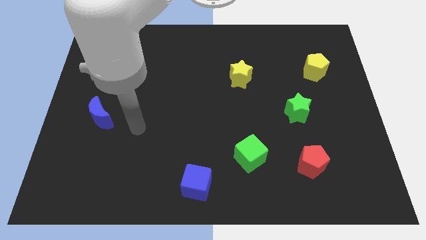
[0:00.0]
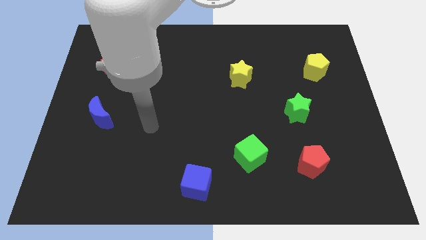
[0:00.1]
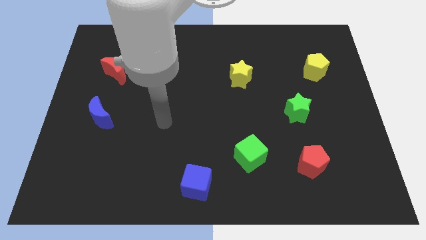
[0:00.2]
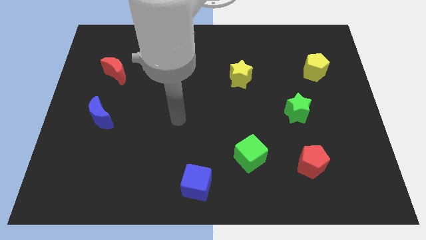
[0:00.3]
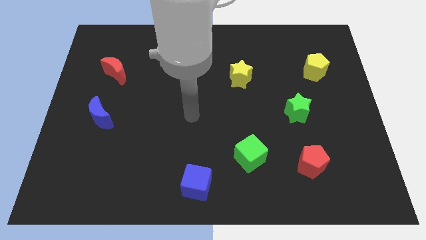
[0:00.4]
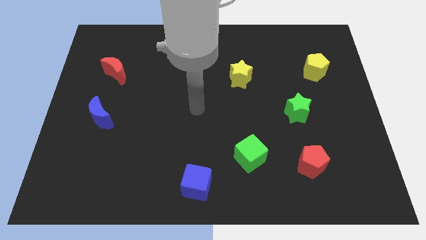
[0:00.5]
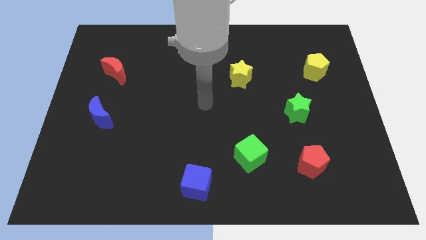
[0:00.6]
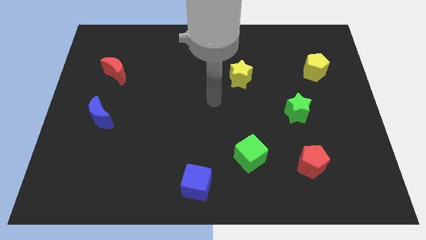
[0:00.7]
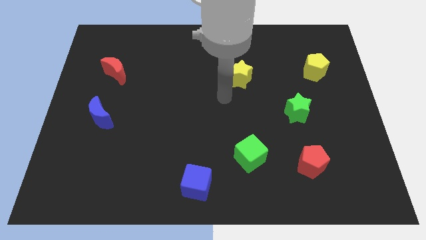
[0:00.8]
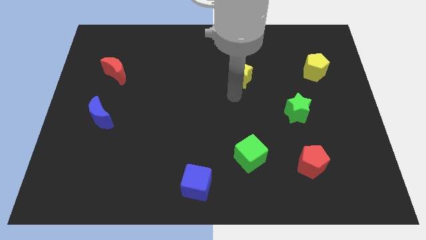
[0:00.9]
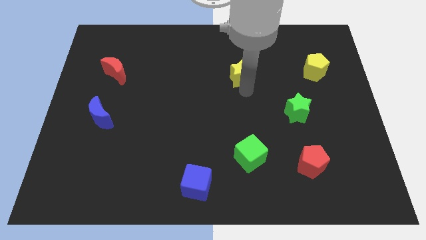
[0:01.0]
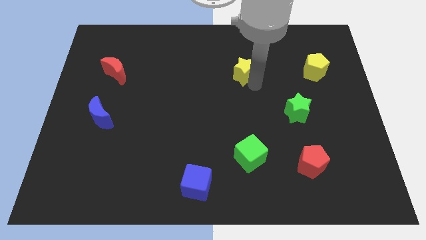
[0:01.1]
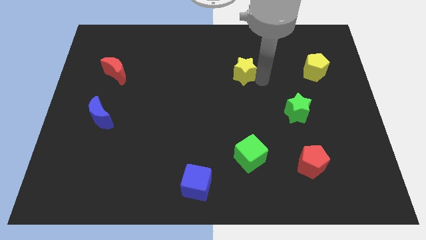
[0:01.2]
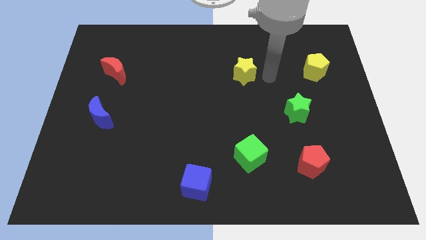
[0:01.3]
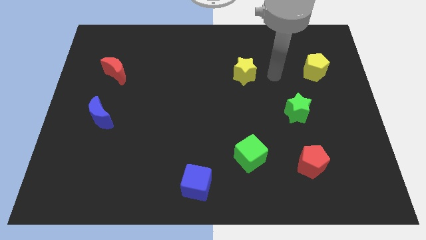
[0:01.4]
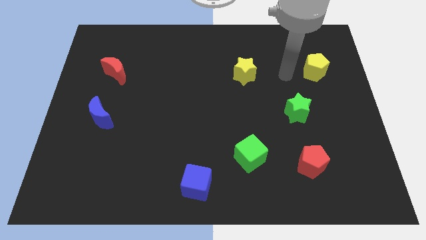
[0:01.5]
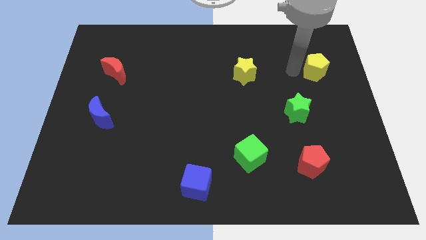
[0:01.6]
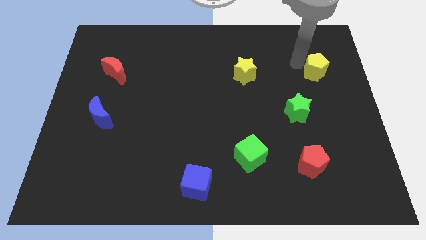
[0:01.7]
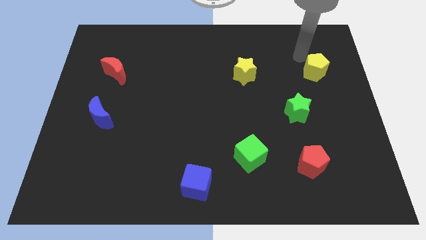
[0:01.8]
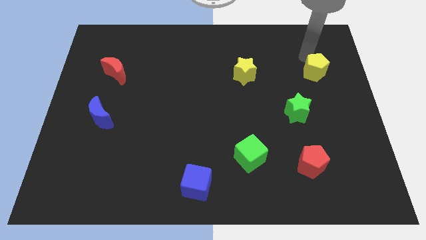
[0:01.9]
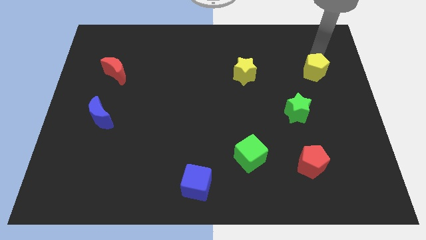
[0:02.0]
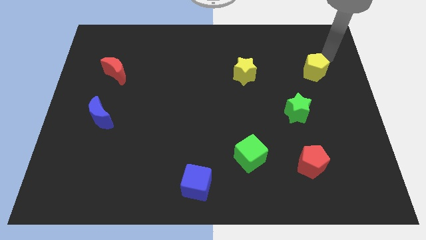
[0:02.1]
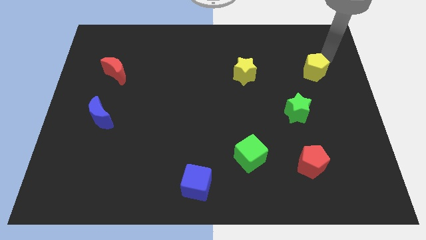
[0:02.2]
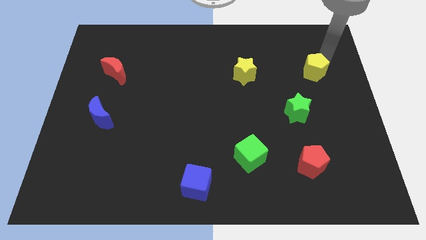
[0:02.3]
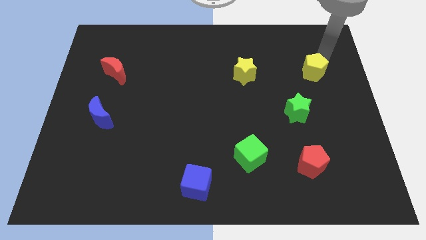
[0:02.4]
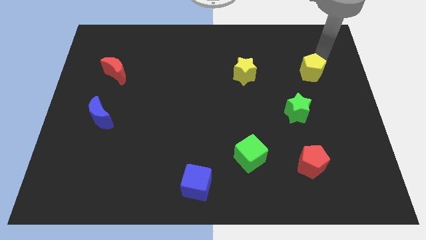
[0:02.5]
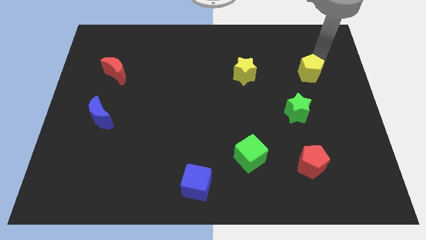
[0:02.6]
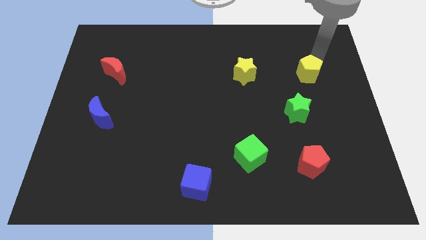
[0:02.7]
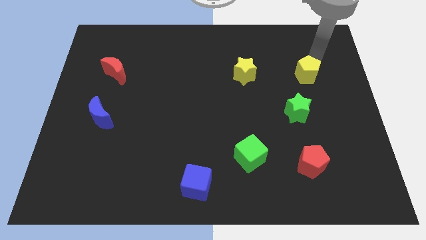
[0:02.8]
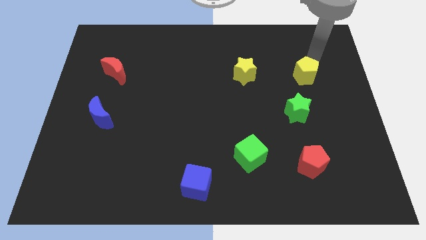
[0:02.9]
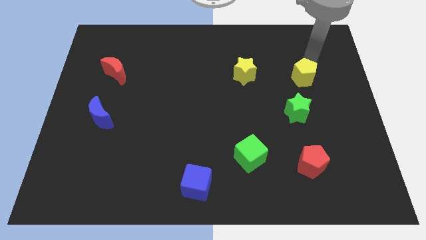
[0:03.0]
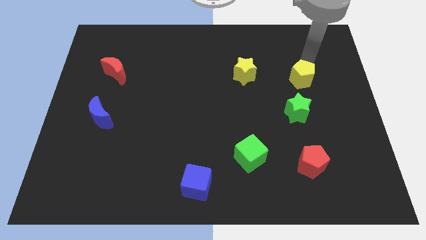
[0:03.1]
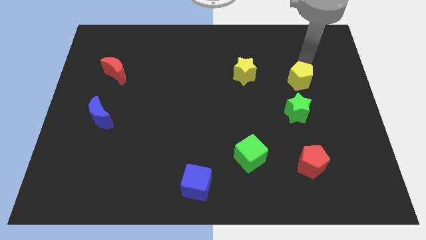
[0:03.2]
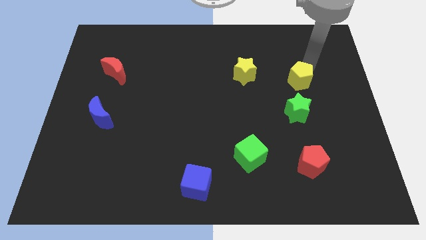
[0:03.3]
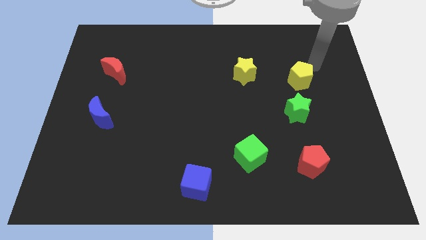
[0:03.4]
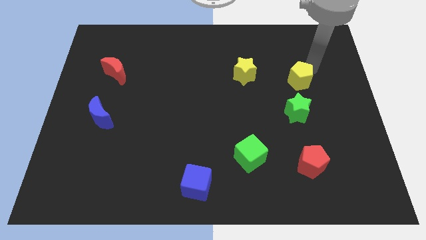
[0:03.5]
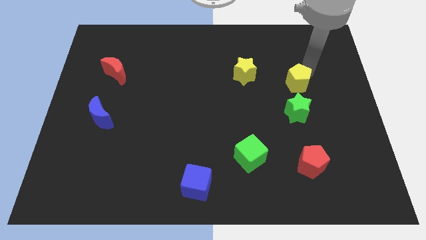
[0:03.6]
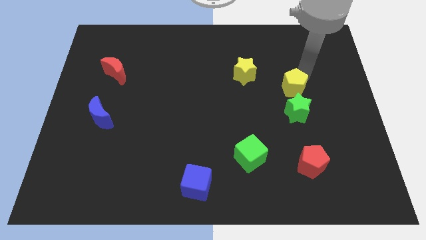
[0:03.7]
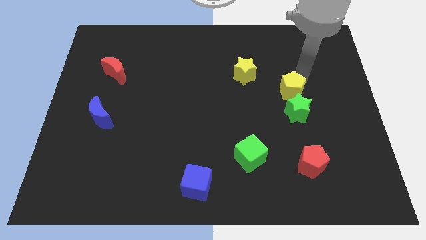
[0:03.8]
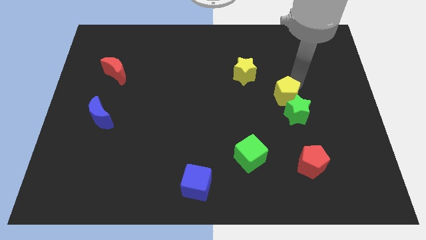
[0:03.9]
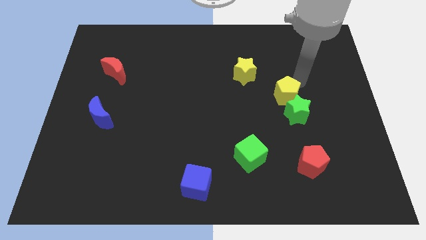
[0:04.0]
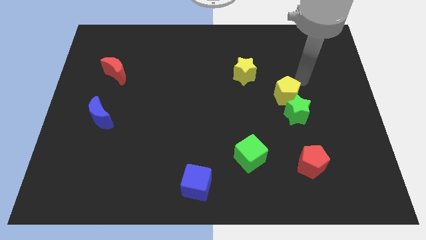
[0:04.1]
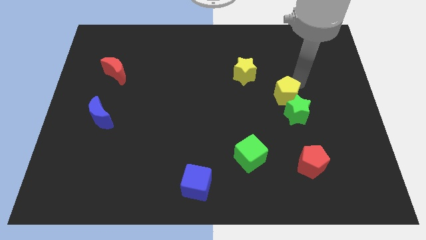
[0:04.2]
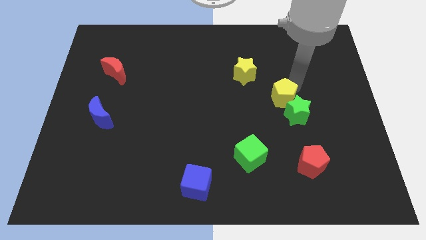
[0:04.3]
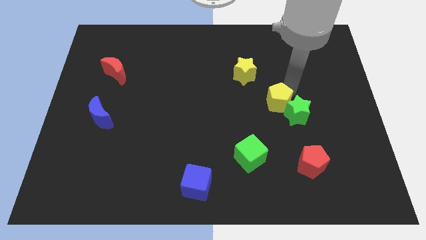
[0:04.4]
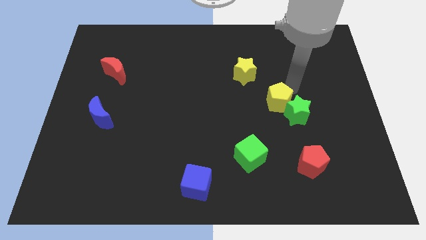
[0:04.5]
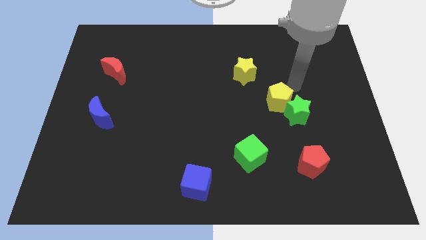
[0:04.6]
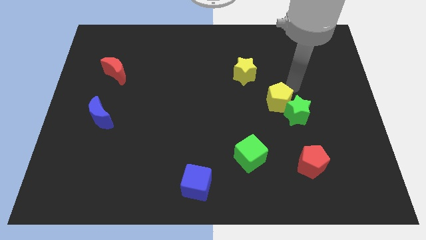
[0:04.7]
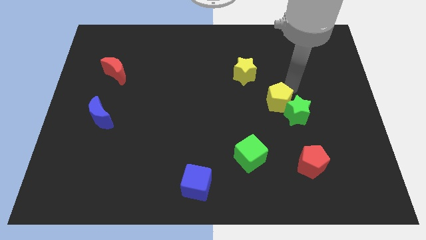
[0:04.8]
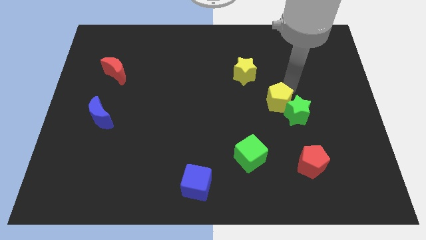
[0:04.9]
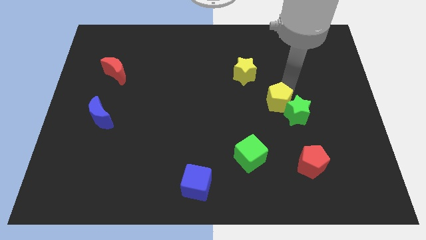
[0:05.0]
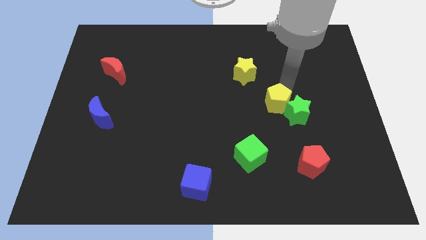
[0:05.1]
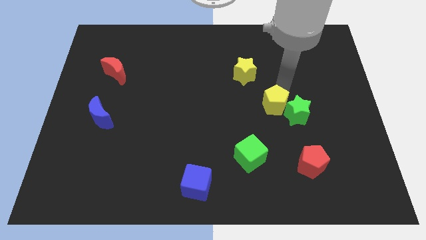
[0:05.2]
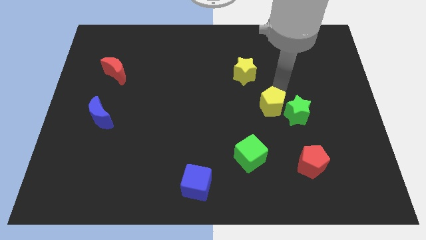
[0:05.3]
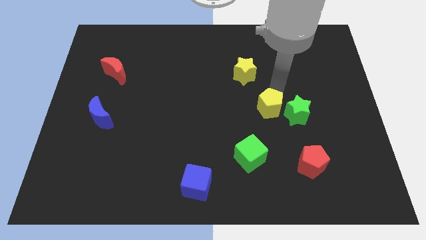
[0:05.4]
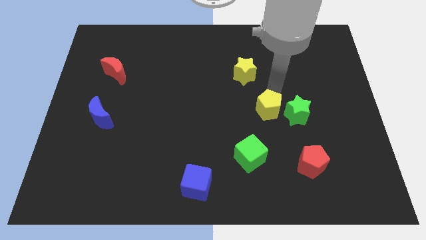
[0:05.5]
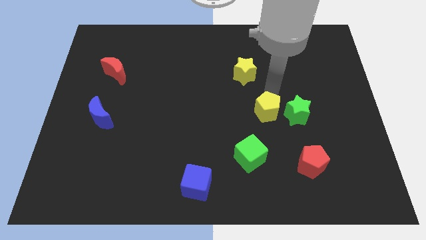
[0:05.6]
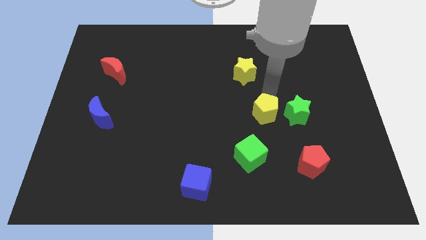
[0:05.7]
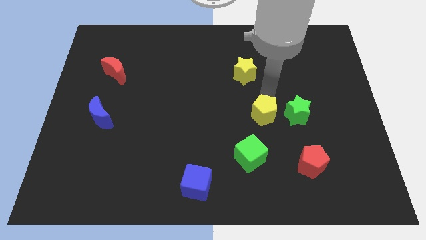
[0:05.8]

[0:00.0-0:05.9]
push the yellow pentagon down and then to the left

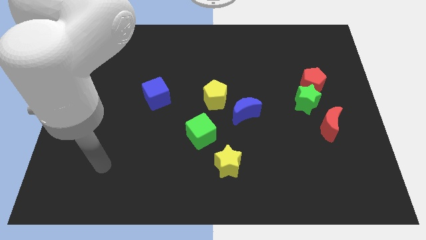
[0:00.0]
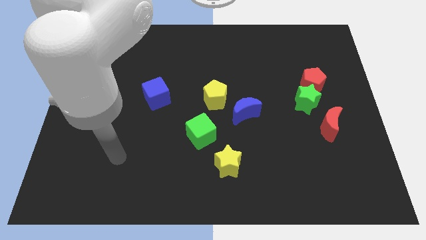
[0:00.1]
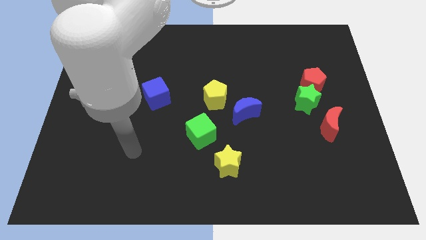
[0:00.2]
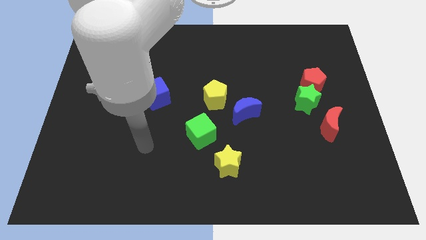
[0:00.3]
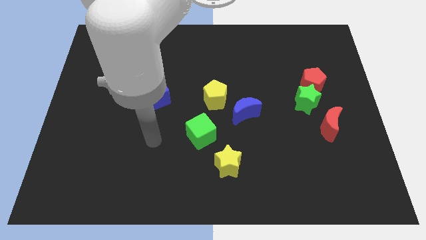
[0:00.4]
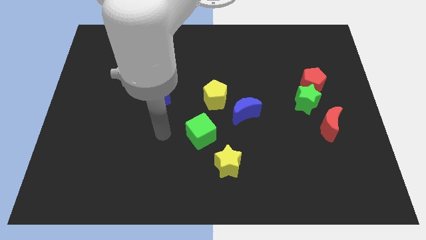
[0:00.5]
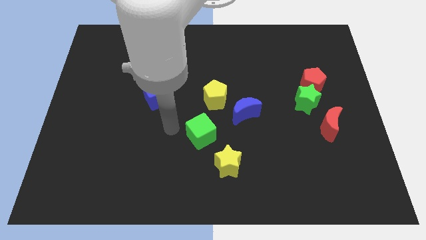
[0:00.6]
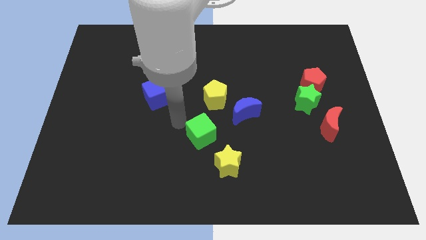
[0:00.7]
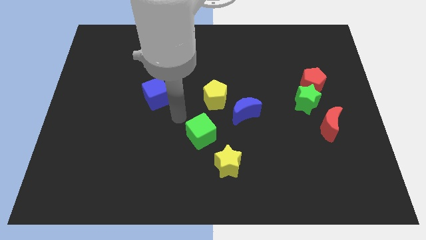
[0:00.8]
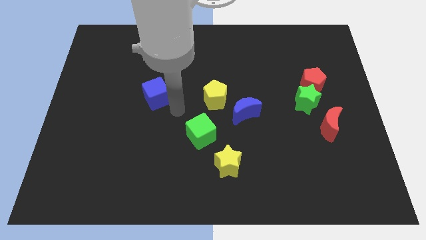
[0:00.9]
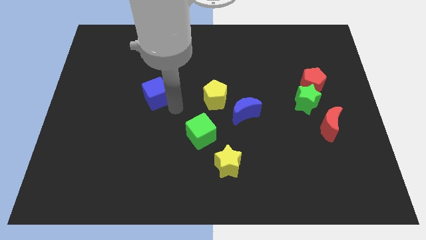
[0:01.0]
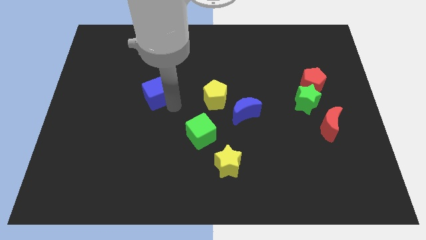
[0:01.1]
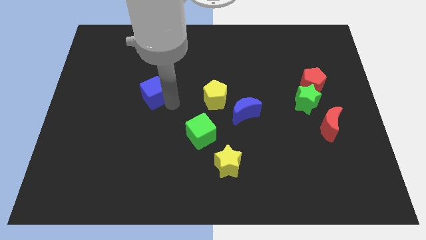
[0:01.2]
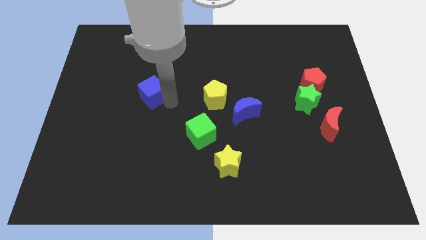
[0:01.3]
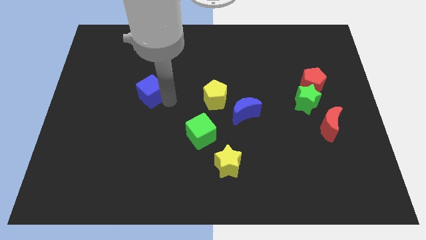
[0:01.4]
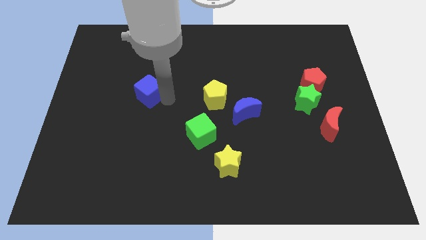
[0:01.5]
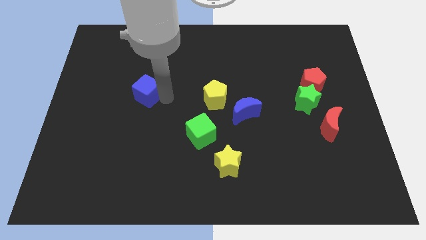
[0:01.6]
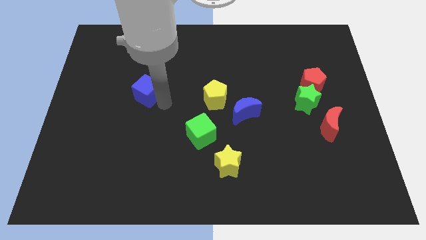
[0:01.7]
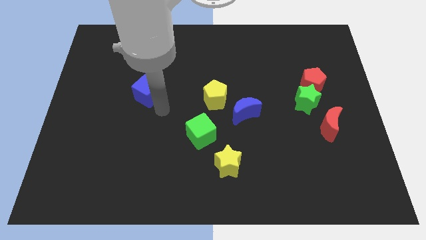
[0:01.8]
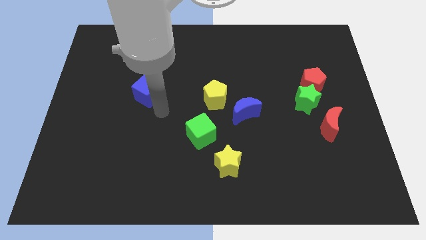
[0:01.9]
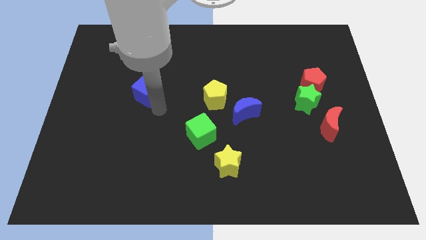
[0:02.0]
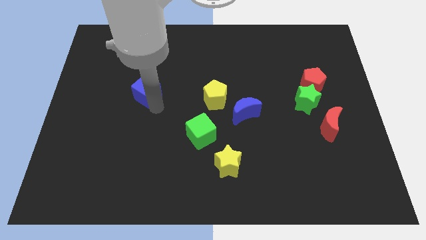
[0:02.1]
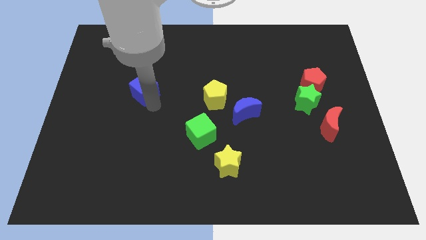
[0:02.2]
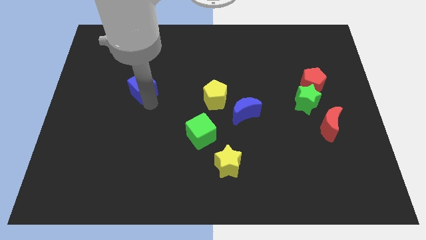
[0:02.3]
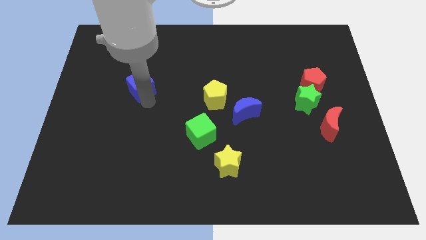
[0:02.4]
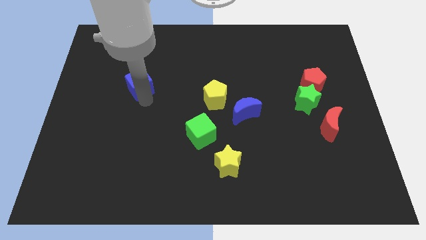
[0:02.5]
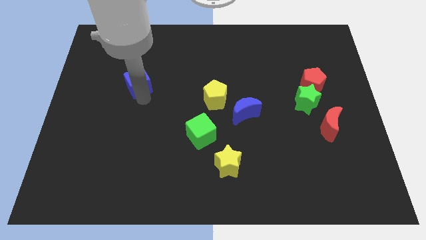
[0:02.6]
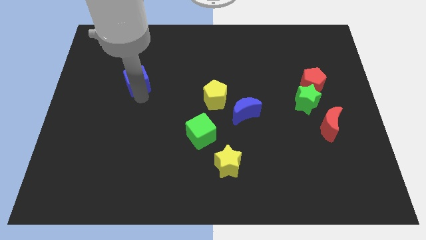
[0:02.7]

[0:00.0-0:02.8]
slide the blue cube a little diagonally up and left

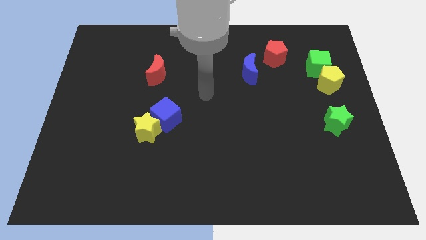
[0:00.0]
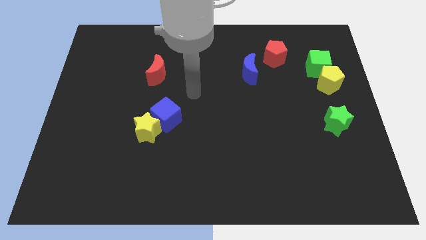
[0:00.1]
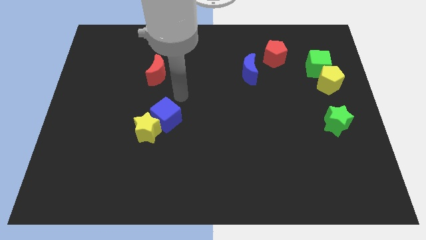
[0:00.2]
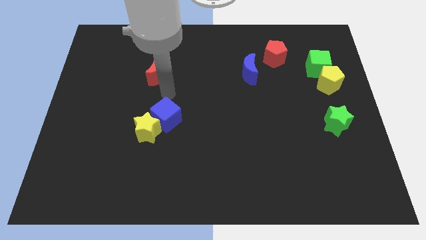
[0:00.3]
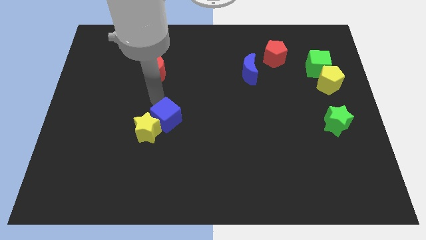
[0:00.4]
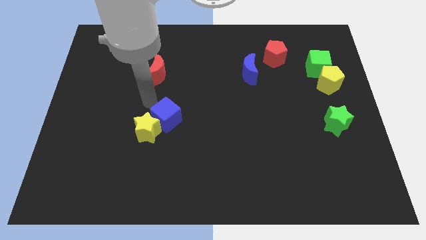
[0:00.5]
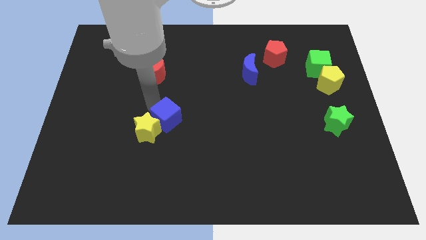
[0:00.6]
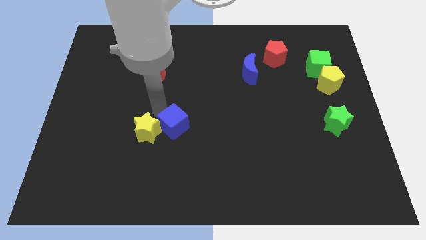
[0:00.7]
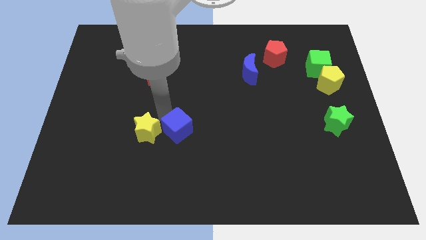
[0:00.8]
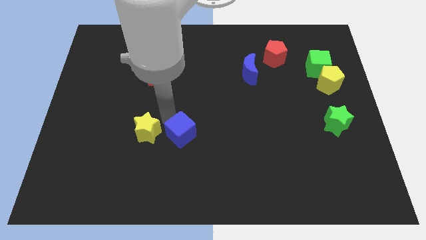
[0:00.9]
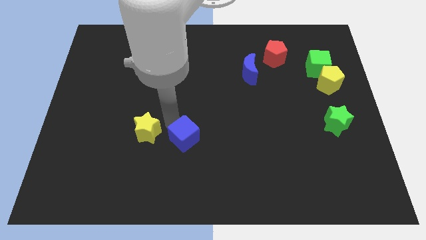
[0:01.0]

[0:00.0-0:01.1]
push the blue cube slightly downwards and then to the right
